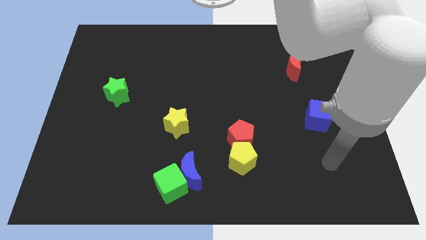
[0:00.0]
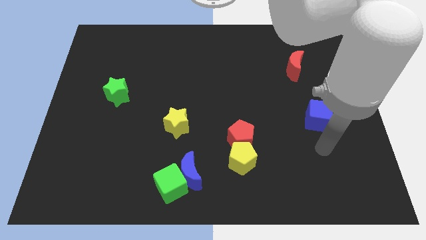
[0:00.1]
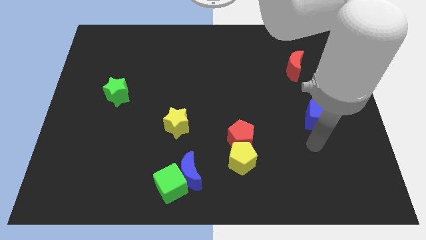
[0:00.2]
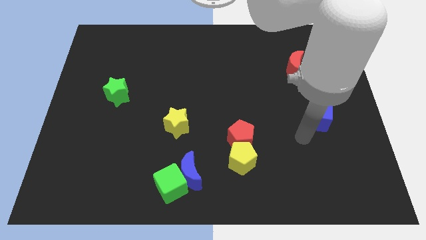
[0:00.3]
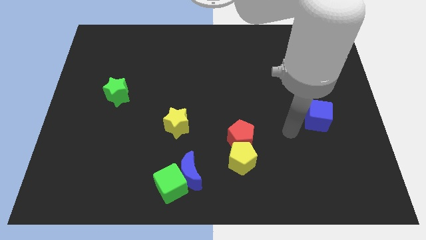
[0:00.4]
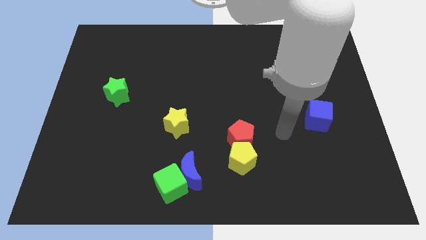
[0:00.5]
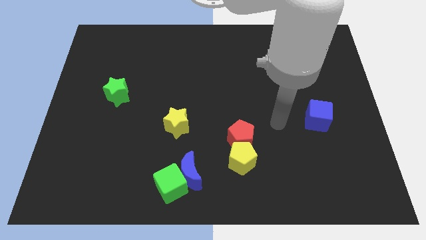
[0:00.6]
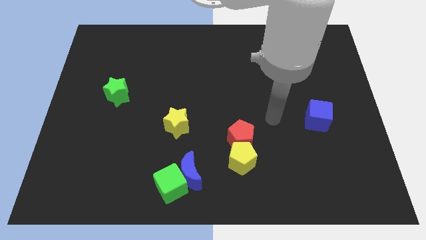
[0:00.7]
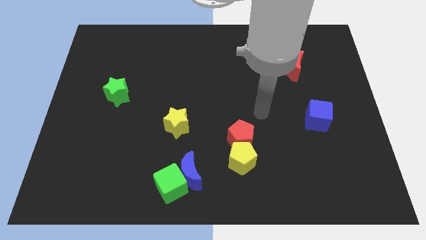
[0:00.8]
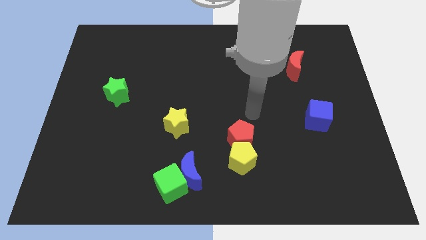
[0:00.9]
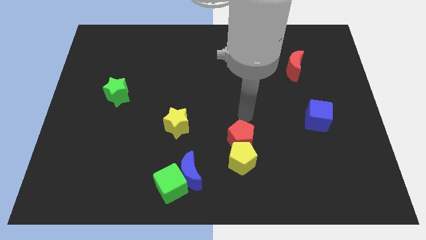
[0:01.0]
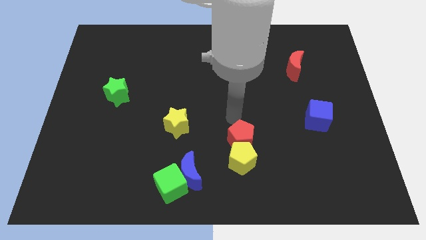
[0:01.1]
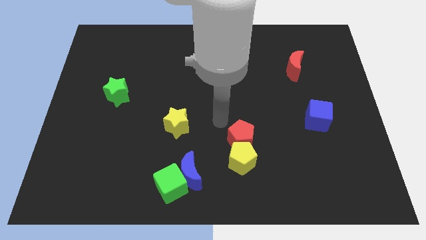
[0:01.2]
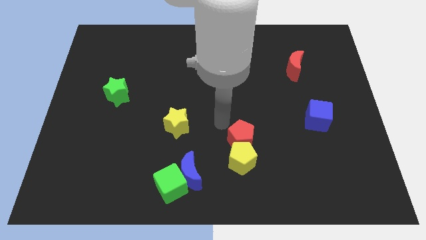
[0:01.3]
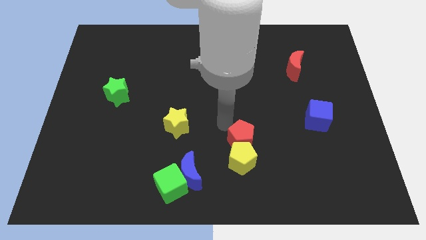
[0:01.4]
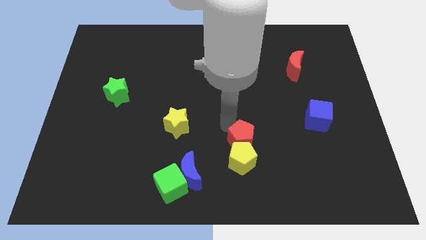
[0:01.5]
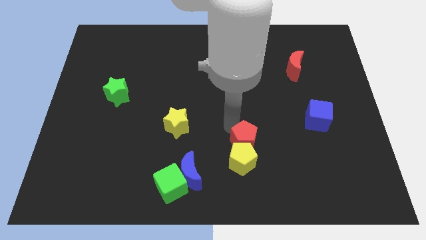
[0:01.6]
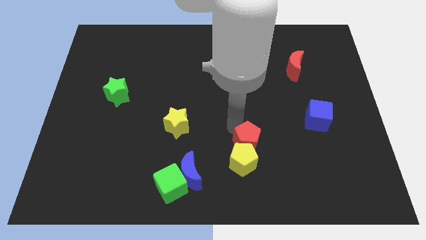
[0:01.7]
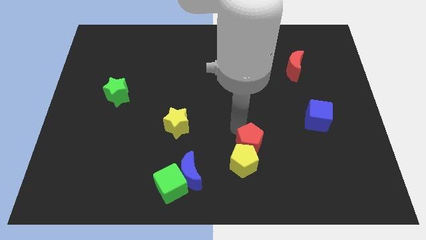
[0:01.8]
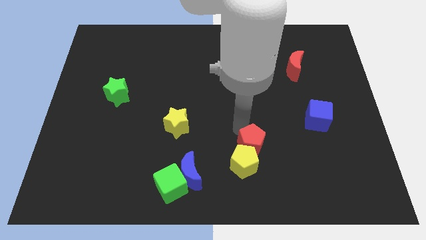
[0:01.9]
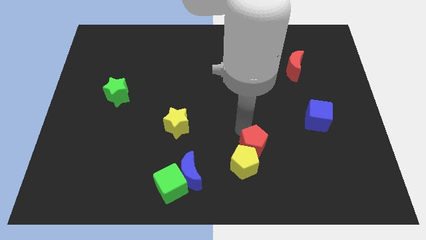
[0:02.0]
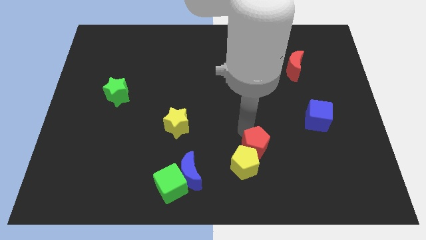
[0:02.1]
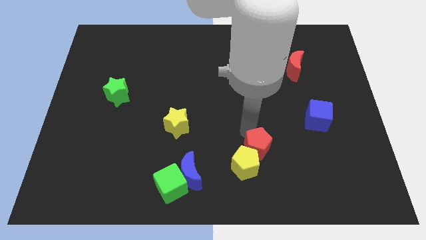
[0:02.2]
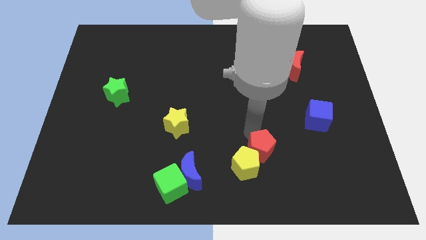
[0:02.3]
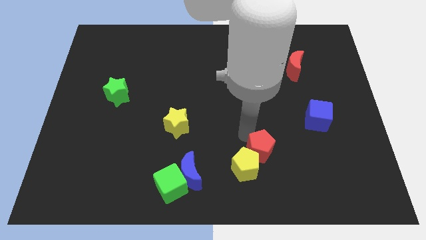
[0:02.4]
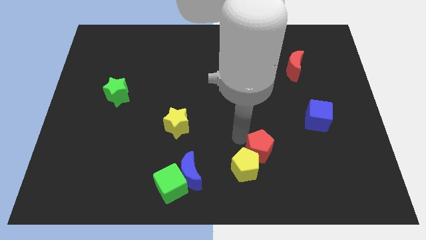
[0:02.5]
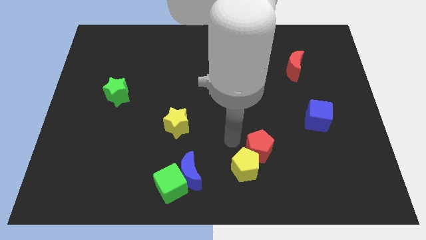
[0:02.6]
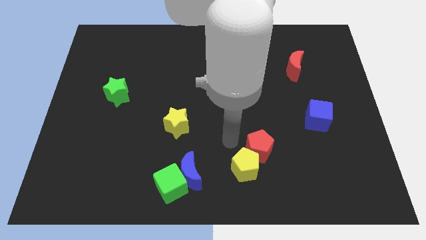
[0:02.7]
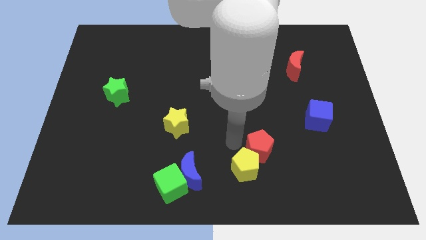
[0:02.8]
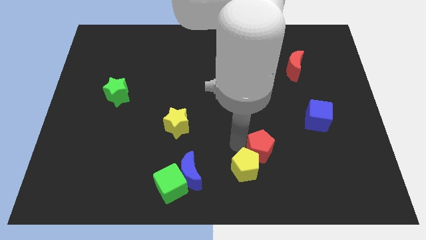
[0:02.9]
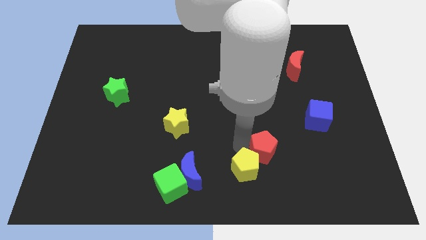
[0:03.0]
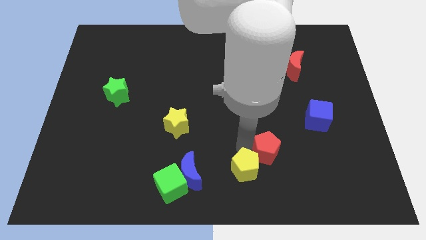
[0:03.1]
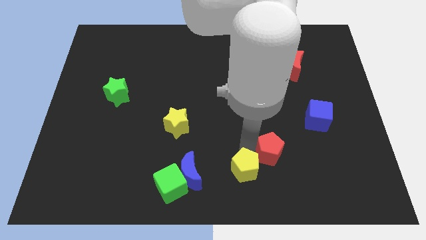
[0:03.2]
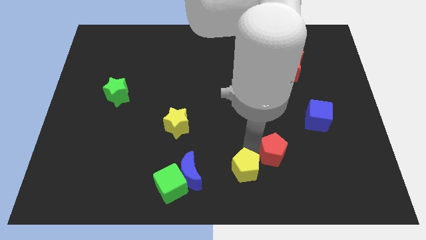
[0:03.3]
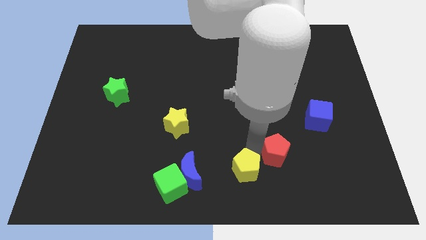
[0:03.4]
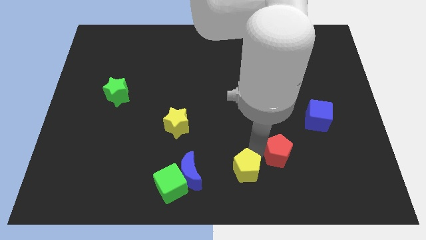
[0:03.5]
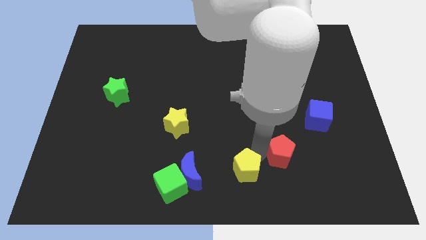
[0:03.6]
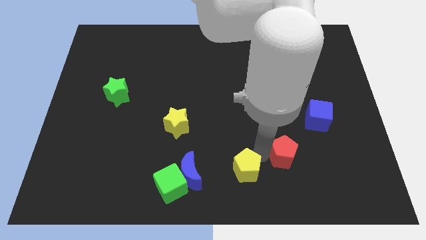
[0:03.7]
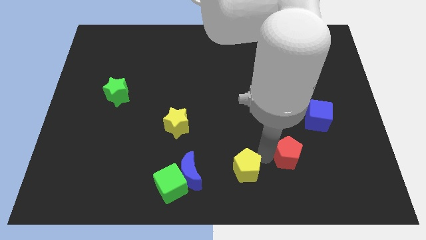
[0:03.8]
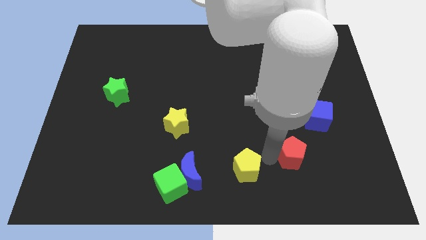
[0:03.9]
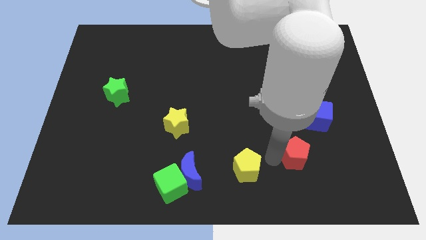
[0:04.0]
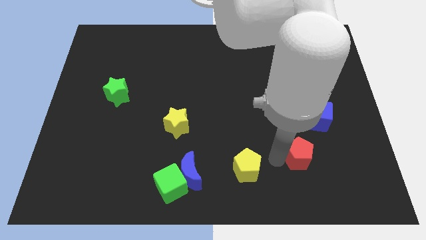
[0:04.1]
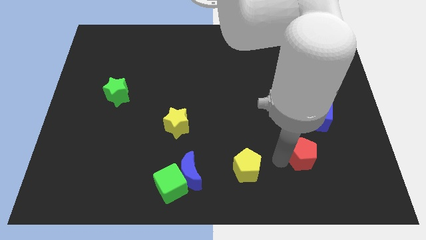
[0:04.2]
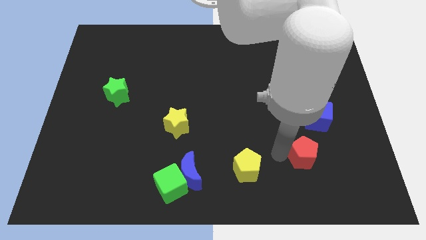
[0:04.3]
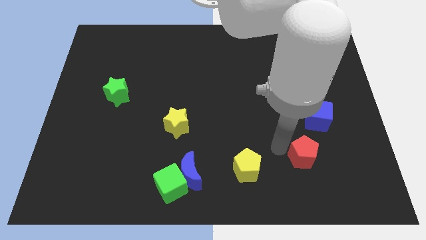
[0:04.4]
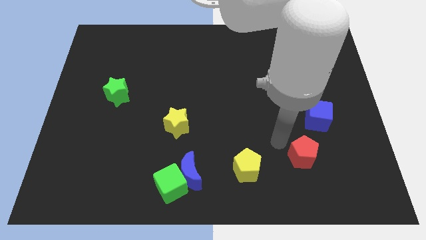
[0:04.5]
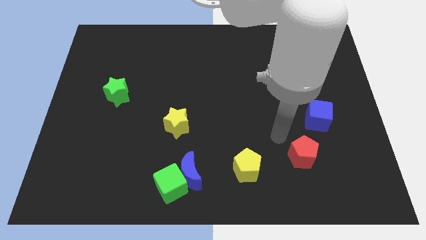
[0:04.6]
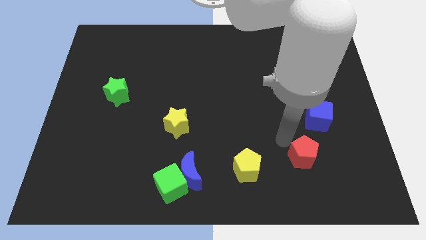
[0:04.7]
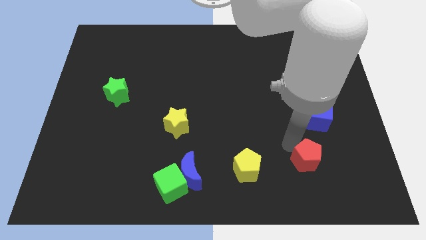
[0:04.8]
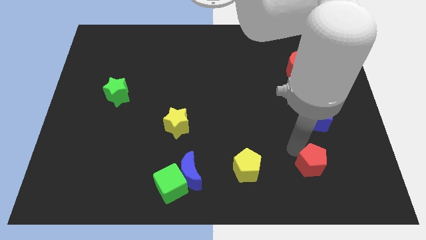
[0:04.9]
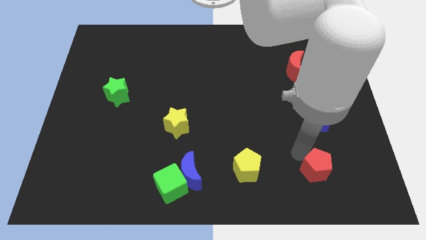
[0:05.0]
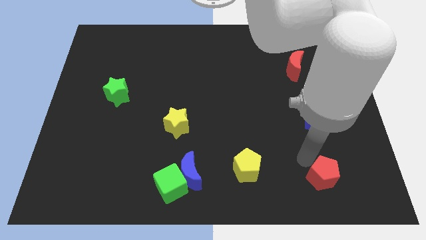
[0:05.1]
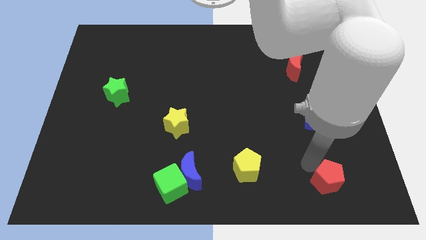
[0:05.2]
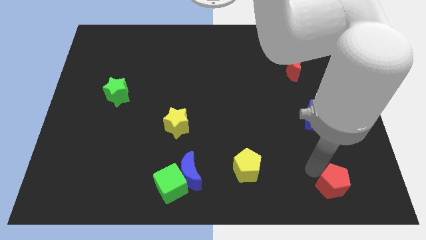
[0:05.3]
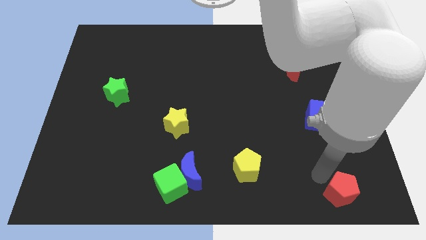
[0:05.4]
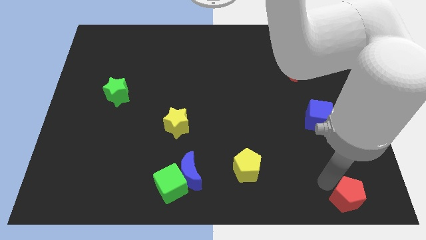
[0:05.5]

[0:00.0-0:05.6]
slide the red pentagon to the bottom right of the board
